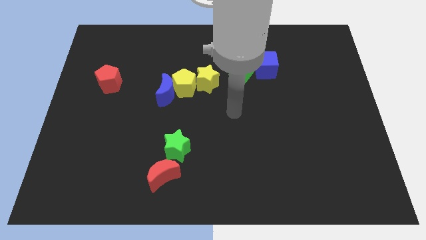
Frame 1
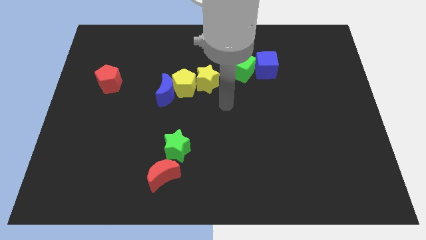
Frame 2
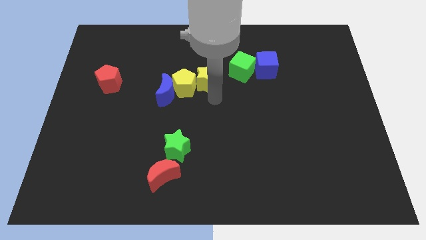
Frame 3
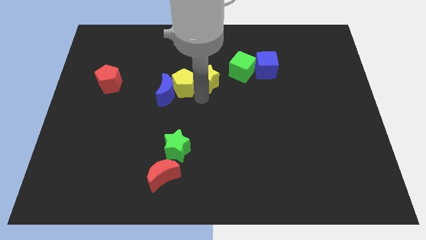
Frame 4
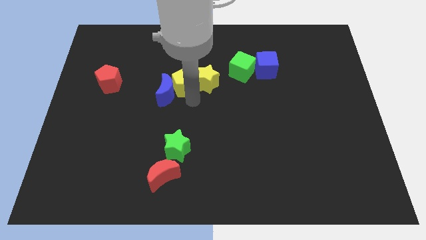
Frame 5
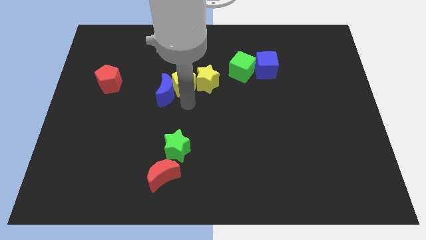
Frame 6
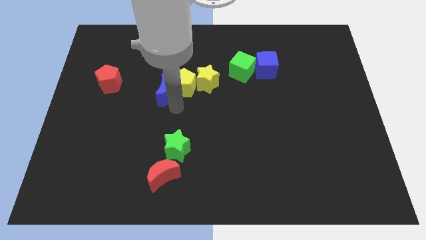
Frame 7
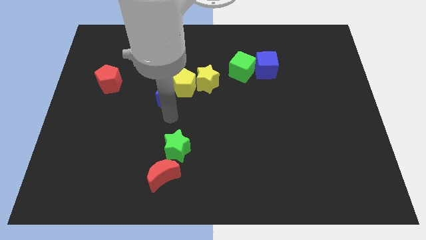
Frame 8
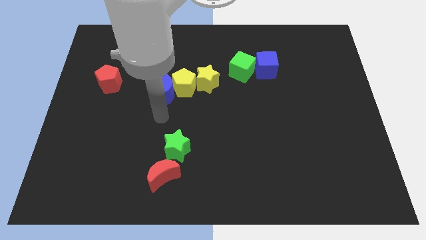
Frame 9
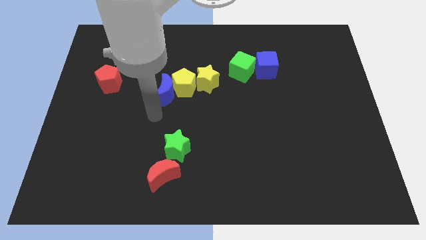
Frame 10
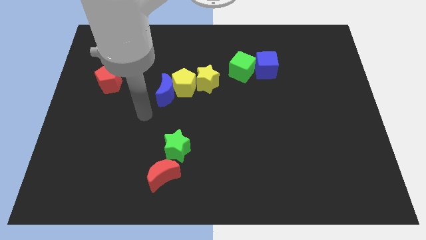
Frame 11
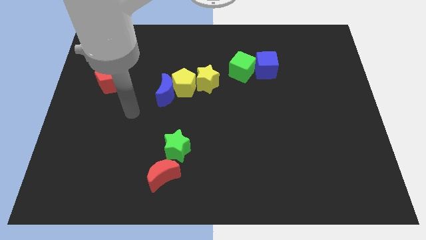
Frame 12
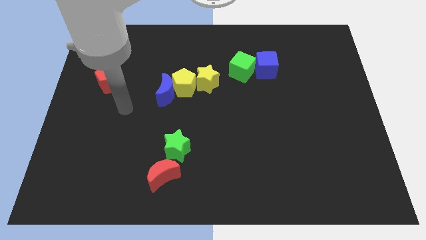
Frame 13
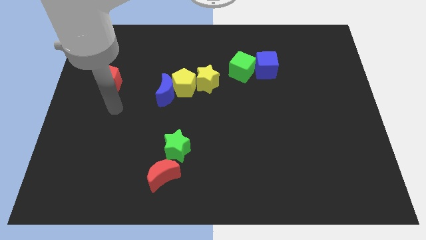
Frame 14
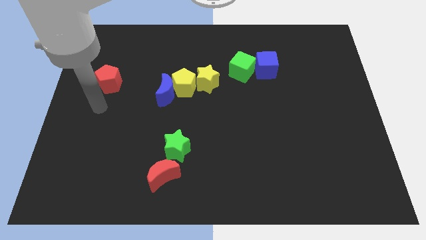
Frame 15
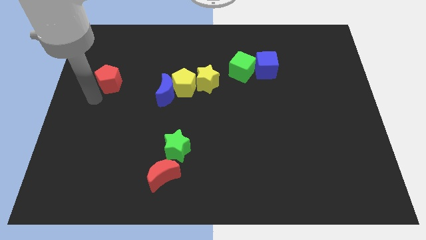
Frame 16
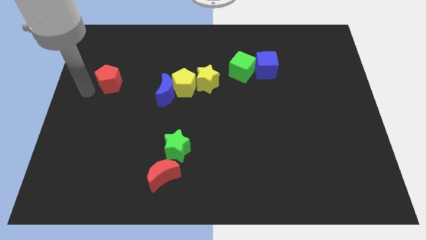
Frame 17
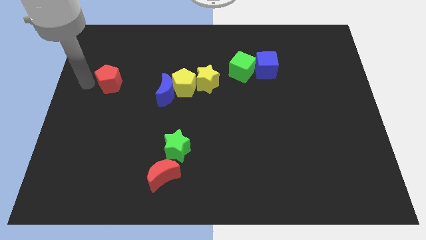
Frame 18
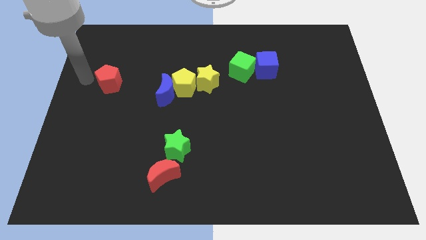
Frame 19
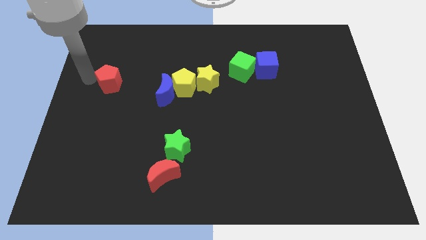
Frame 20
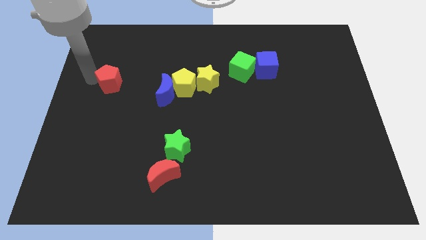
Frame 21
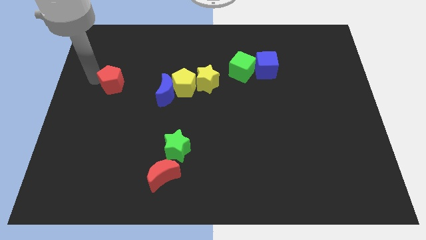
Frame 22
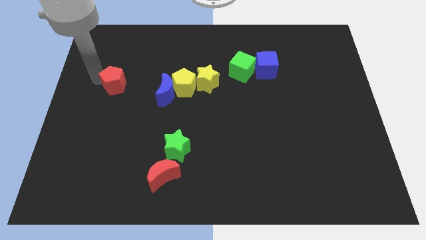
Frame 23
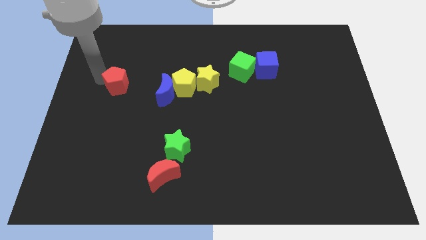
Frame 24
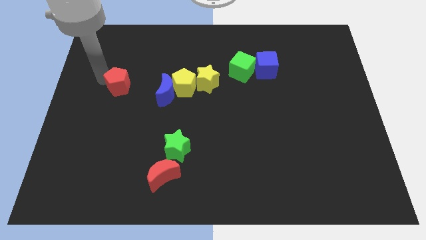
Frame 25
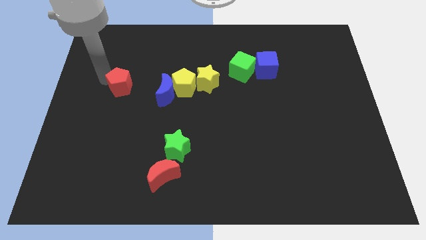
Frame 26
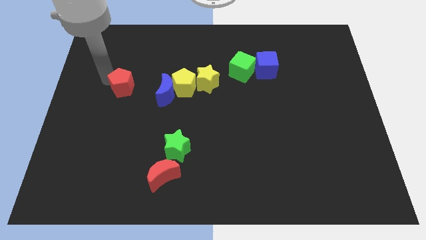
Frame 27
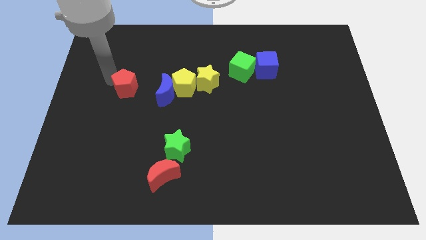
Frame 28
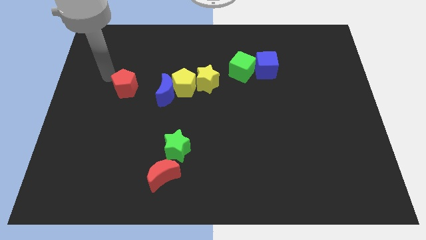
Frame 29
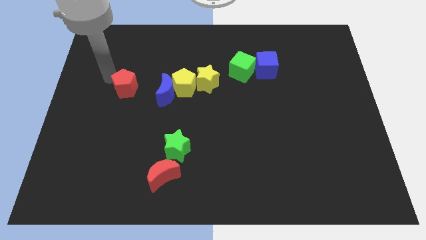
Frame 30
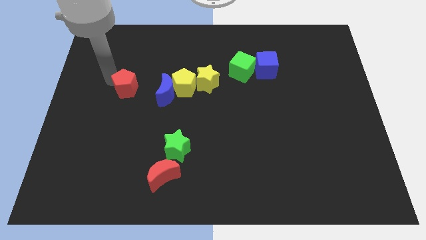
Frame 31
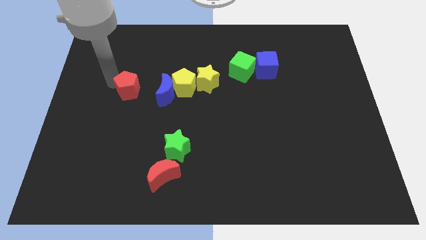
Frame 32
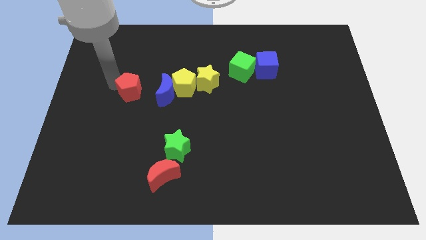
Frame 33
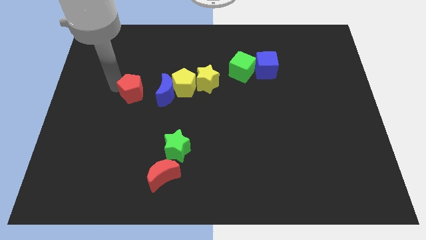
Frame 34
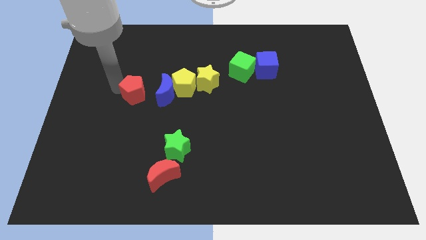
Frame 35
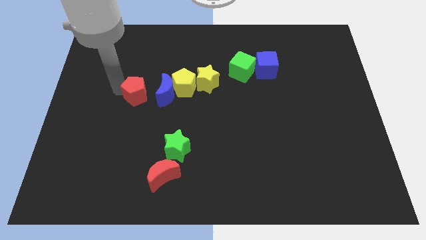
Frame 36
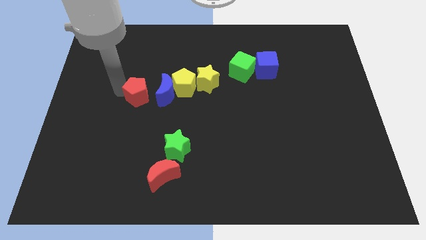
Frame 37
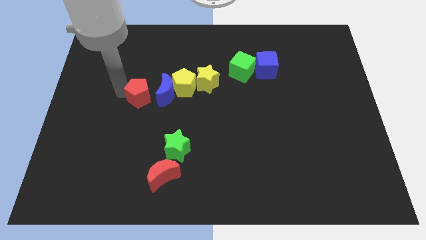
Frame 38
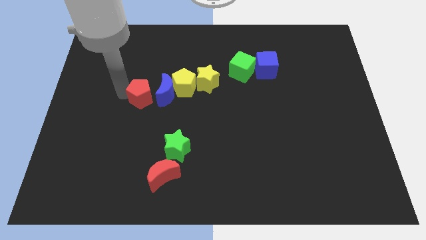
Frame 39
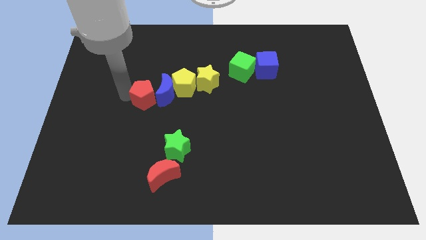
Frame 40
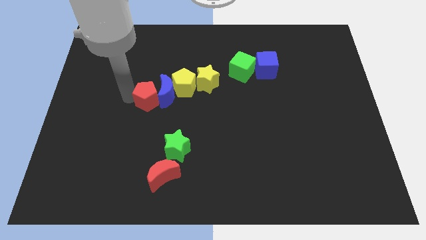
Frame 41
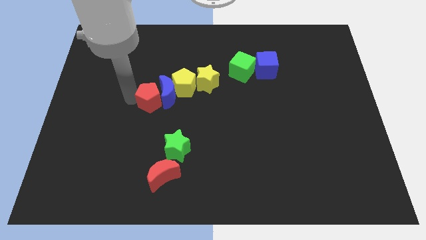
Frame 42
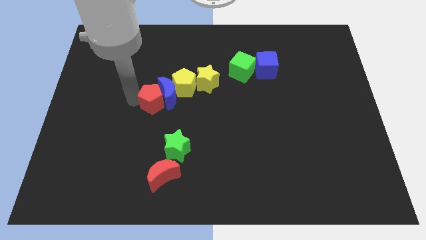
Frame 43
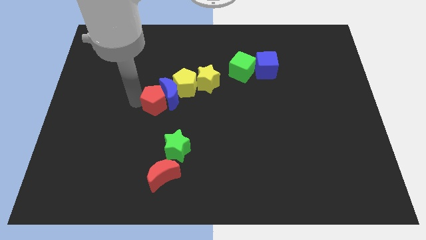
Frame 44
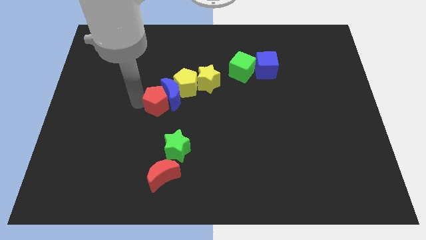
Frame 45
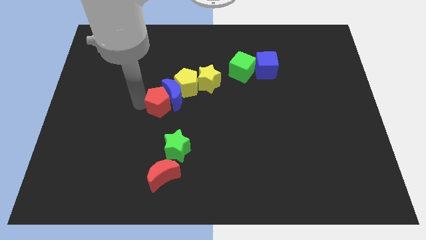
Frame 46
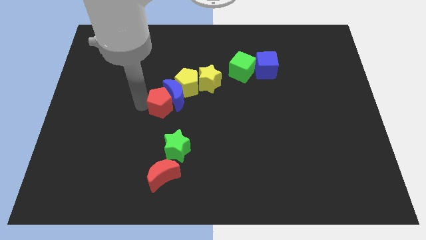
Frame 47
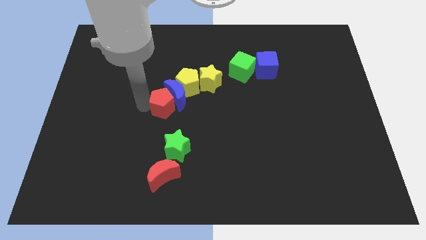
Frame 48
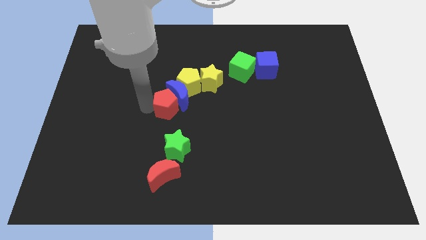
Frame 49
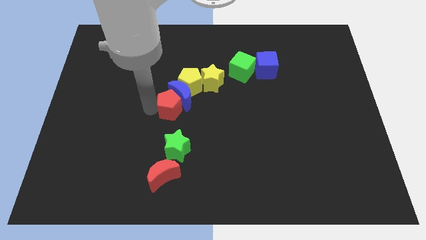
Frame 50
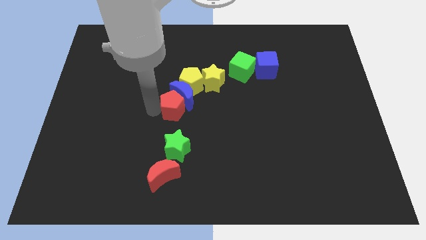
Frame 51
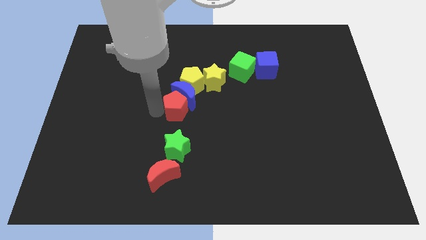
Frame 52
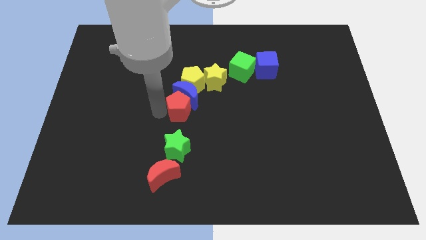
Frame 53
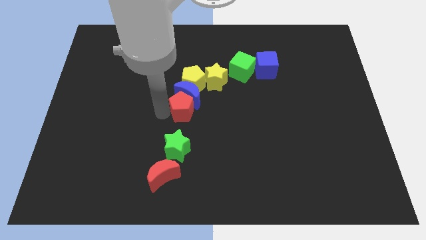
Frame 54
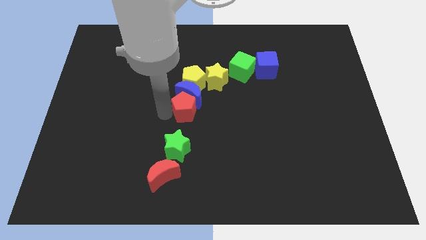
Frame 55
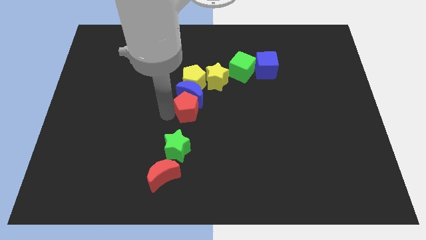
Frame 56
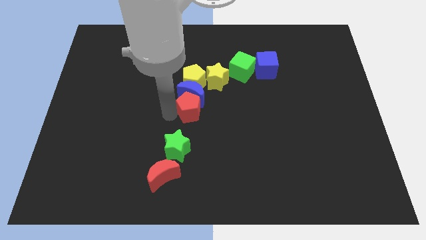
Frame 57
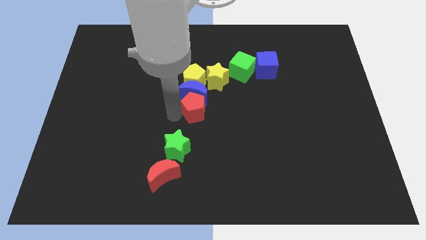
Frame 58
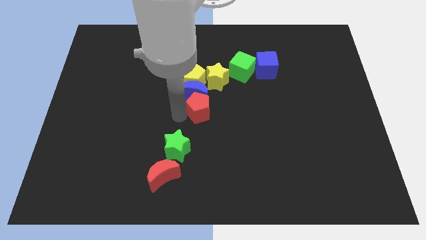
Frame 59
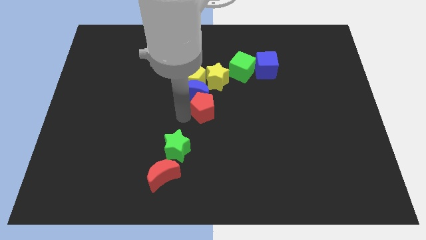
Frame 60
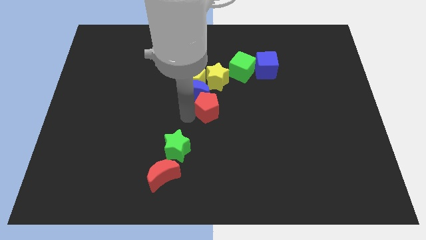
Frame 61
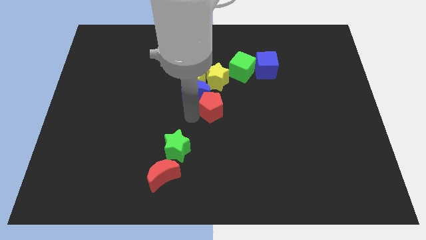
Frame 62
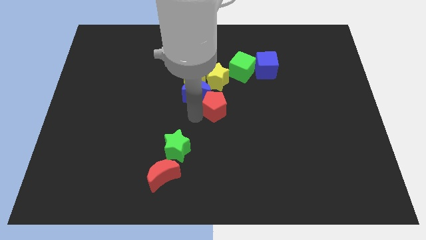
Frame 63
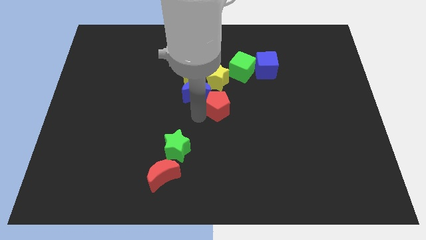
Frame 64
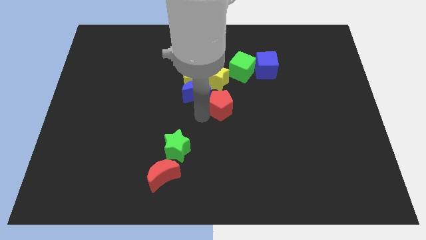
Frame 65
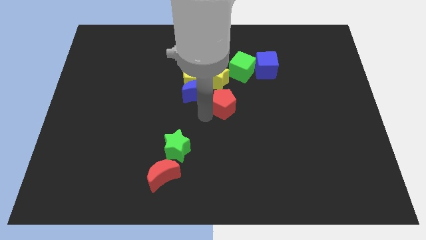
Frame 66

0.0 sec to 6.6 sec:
move the red pentagon to the bottom right of the yellow star
